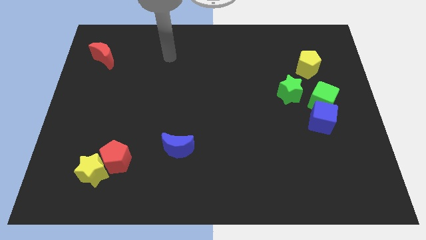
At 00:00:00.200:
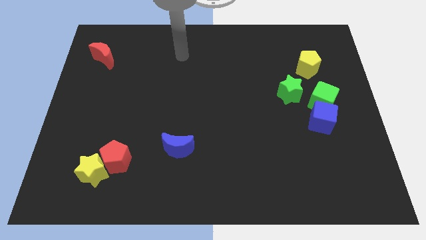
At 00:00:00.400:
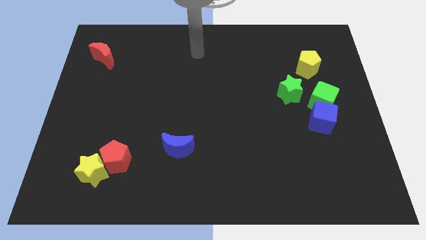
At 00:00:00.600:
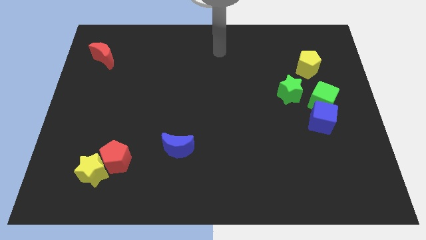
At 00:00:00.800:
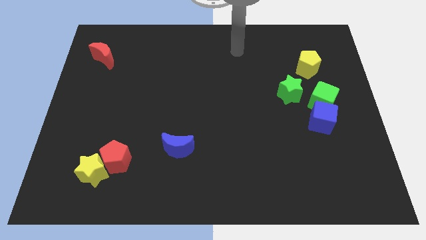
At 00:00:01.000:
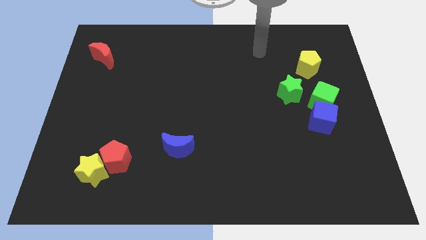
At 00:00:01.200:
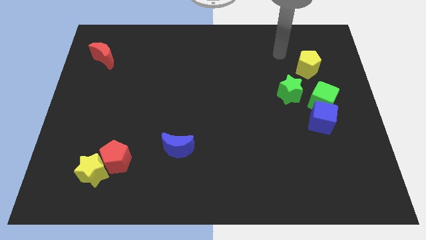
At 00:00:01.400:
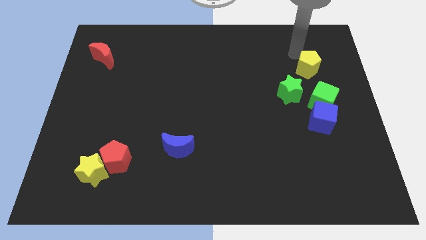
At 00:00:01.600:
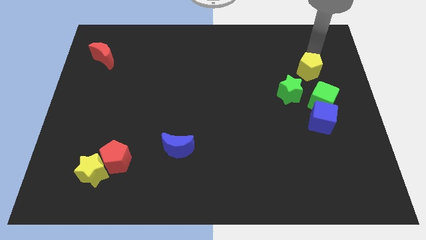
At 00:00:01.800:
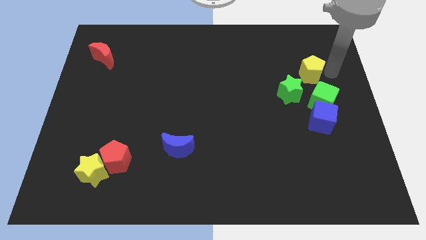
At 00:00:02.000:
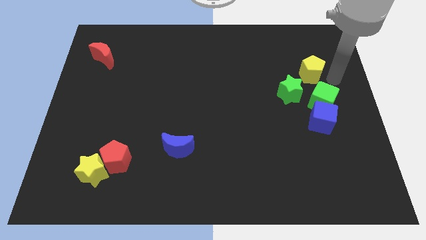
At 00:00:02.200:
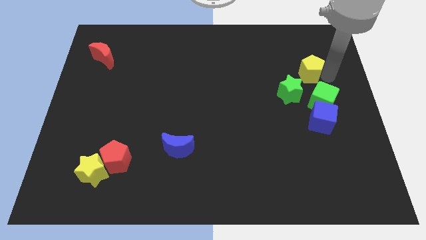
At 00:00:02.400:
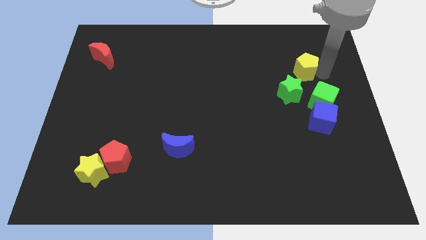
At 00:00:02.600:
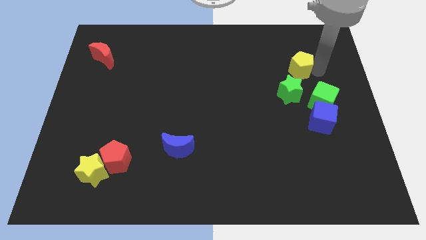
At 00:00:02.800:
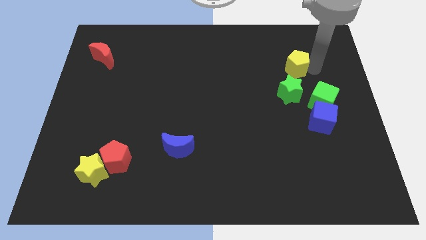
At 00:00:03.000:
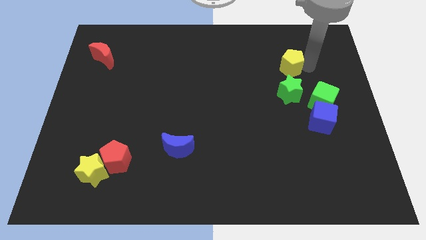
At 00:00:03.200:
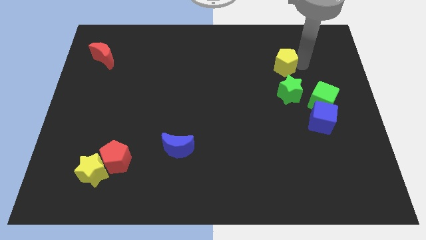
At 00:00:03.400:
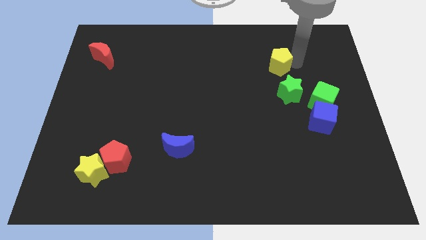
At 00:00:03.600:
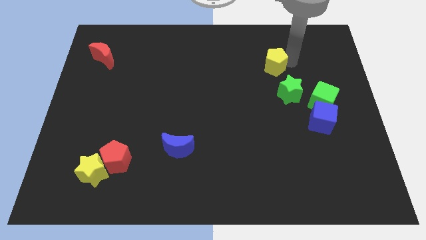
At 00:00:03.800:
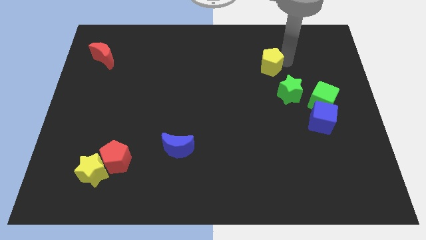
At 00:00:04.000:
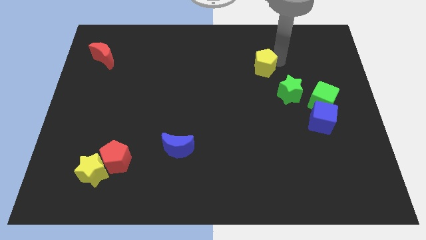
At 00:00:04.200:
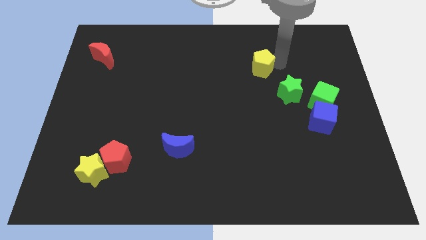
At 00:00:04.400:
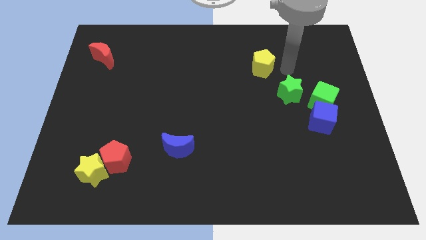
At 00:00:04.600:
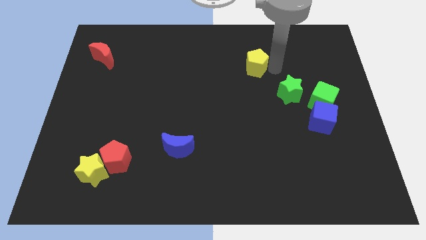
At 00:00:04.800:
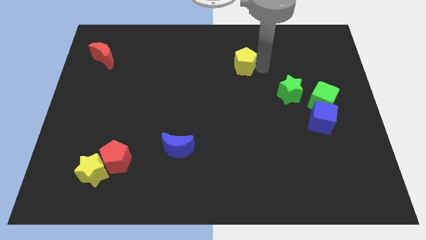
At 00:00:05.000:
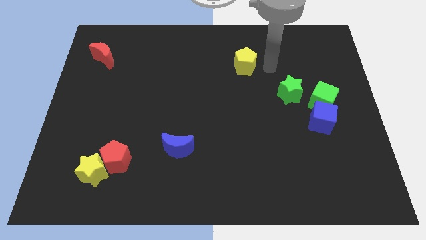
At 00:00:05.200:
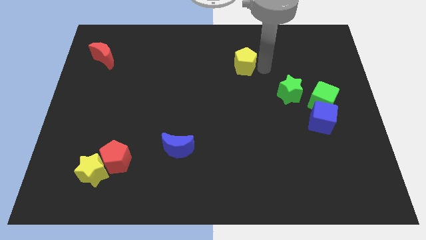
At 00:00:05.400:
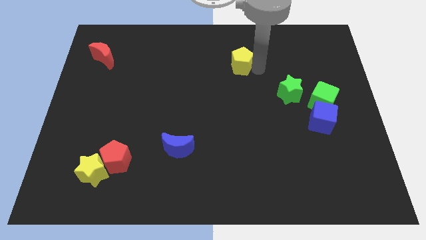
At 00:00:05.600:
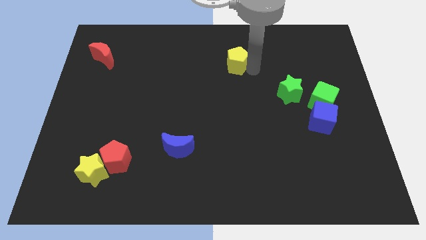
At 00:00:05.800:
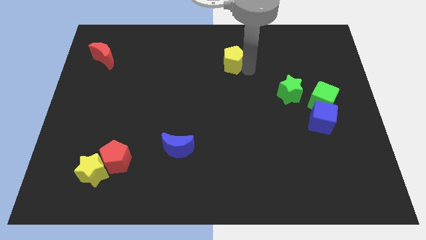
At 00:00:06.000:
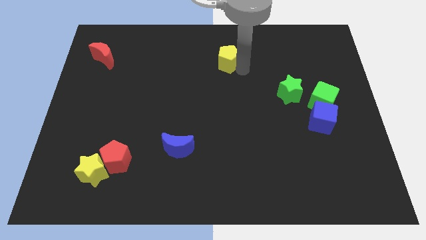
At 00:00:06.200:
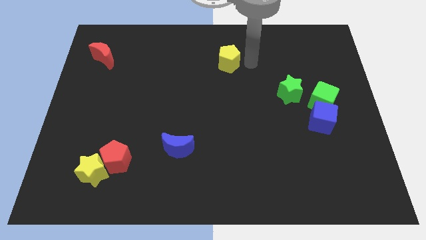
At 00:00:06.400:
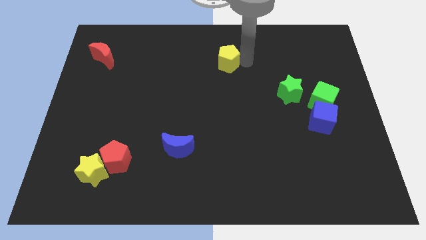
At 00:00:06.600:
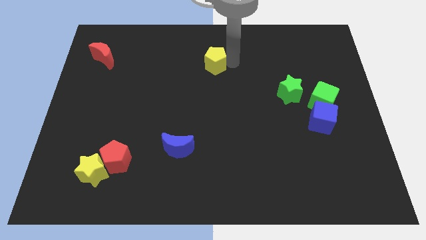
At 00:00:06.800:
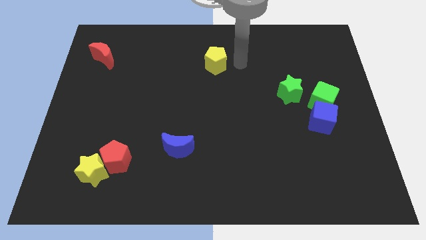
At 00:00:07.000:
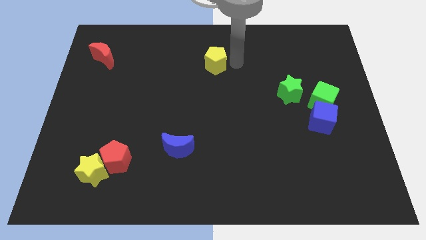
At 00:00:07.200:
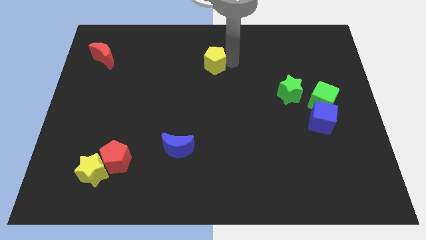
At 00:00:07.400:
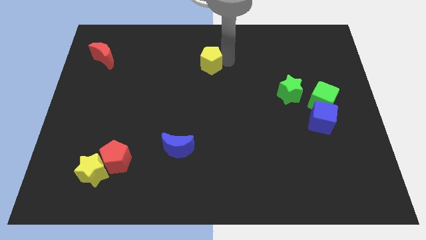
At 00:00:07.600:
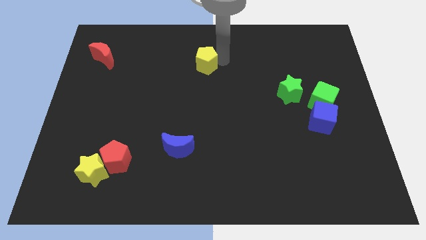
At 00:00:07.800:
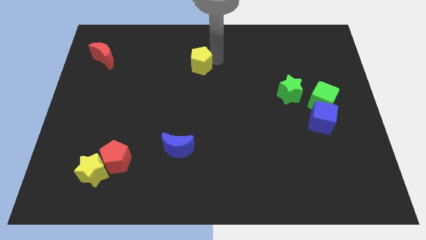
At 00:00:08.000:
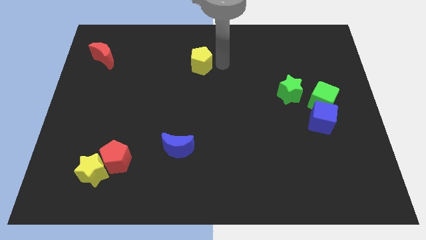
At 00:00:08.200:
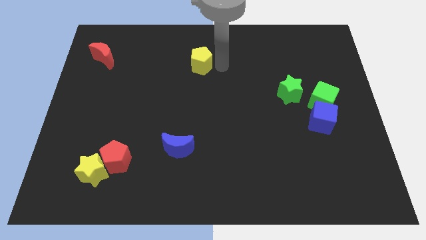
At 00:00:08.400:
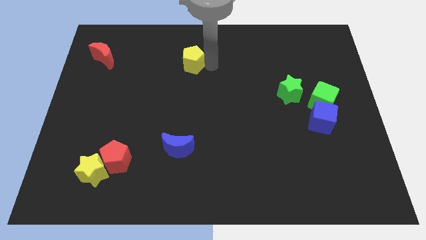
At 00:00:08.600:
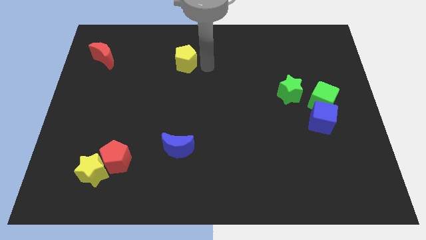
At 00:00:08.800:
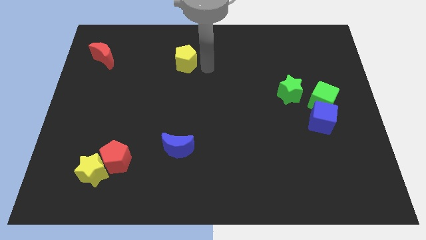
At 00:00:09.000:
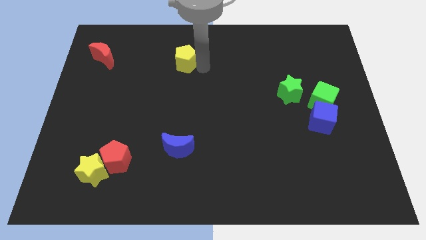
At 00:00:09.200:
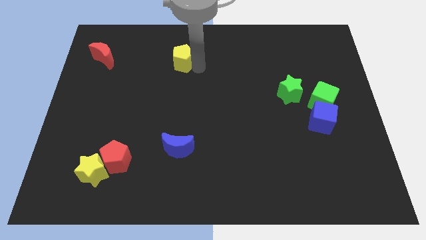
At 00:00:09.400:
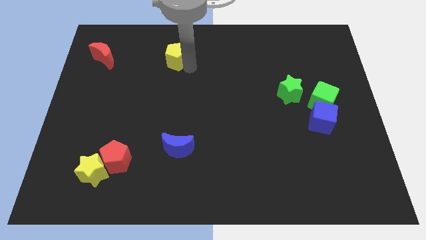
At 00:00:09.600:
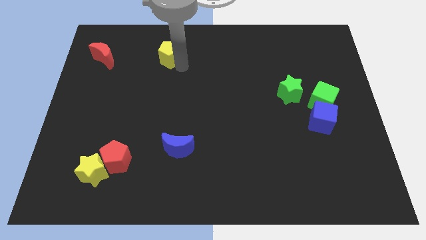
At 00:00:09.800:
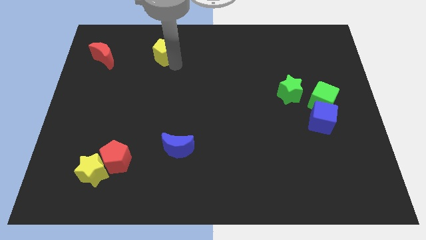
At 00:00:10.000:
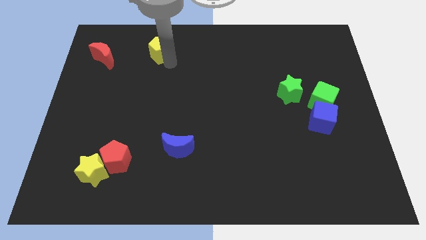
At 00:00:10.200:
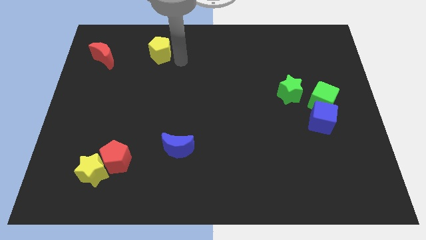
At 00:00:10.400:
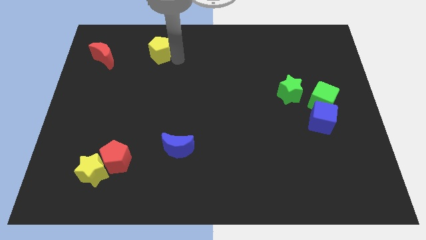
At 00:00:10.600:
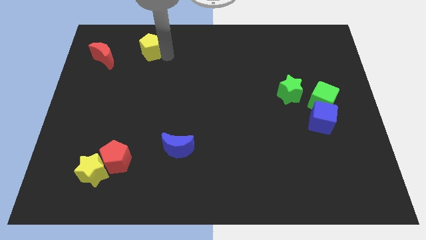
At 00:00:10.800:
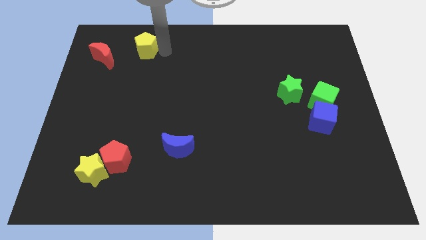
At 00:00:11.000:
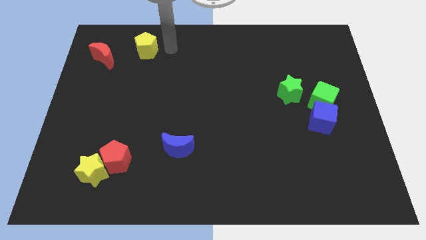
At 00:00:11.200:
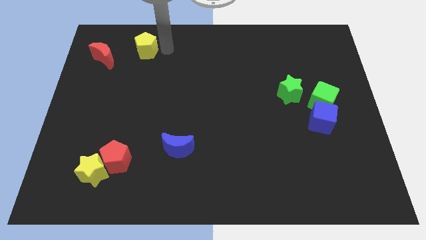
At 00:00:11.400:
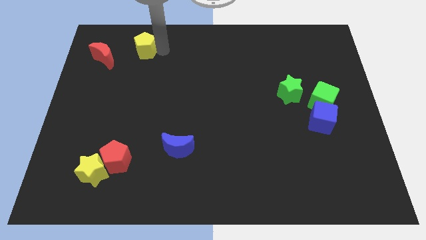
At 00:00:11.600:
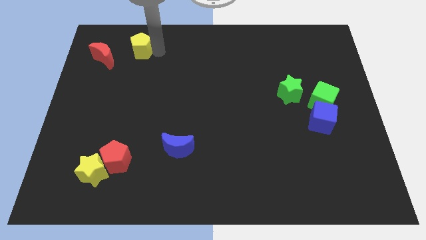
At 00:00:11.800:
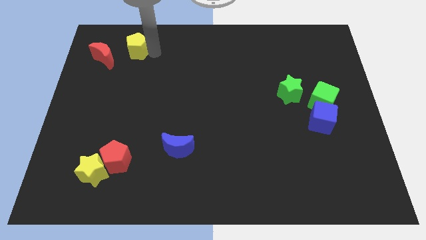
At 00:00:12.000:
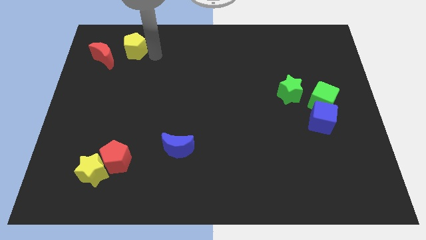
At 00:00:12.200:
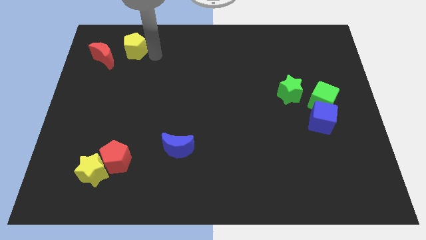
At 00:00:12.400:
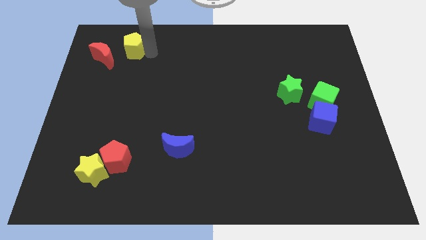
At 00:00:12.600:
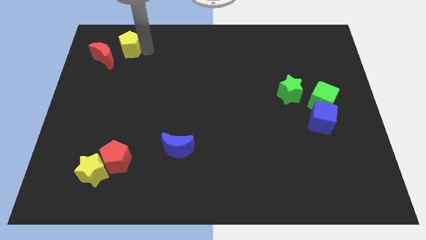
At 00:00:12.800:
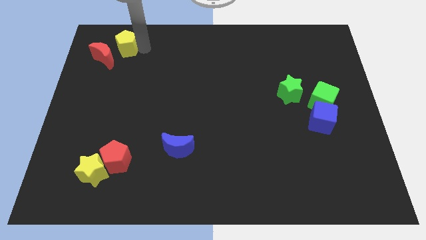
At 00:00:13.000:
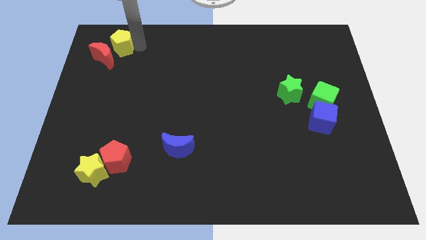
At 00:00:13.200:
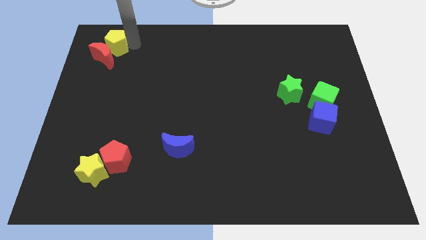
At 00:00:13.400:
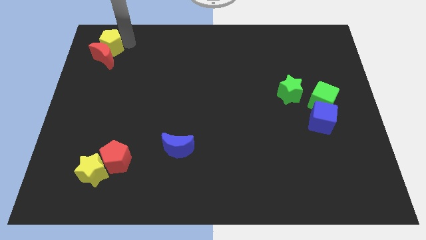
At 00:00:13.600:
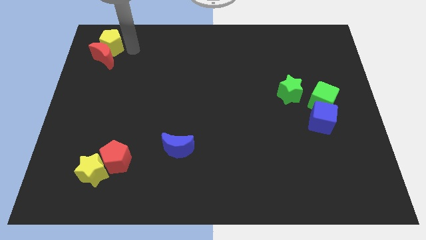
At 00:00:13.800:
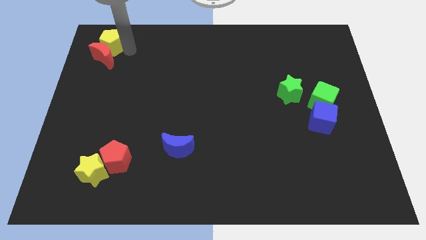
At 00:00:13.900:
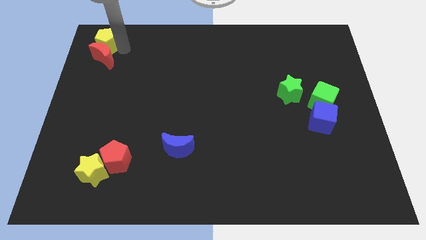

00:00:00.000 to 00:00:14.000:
push the yellow pentagon to the top left of the board
